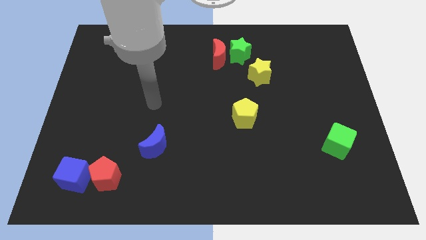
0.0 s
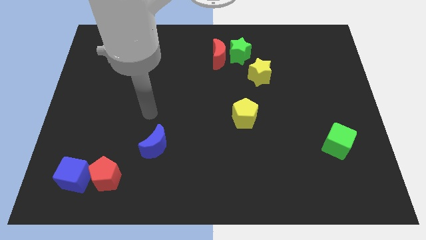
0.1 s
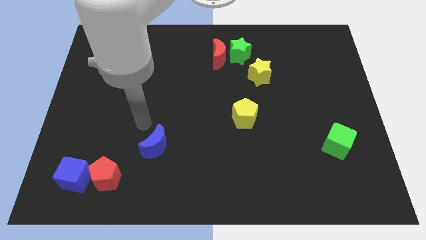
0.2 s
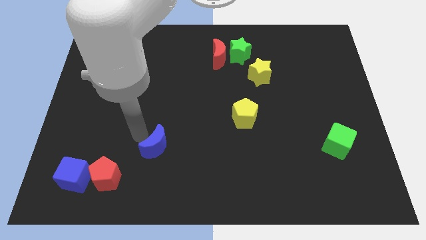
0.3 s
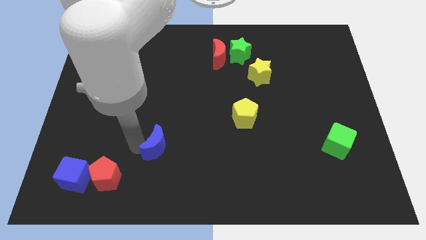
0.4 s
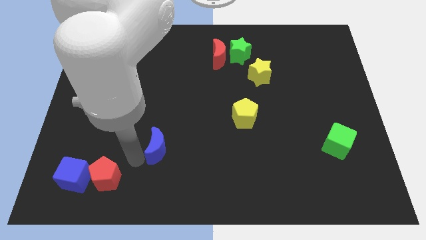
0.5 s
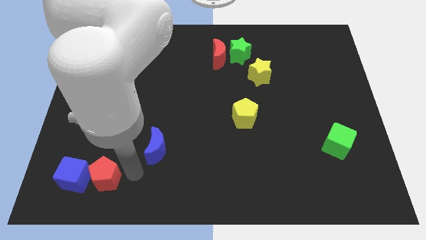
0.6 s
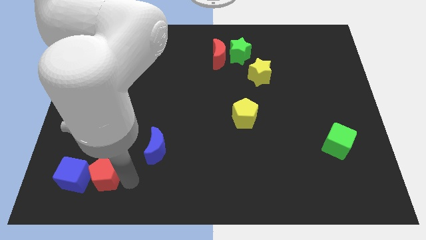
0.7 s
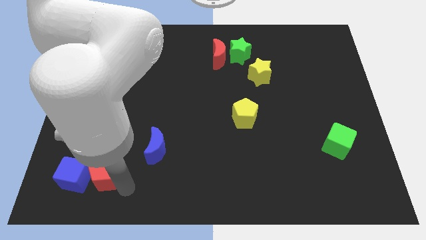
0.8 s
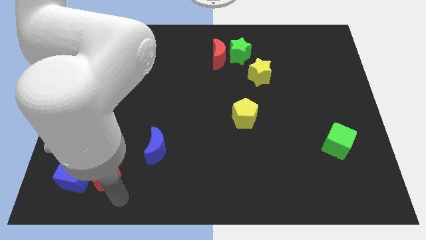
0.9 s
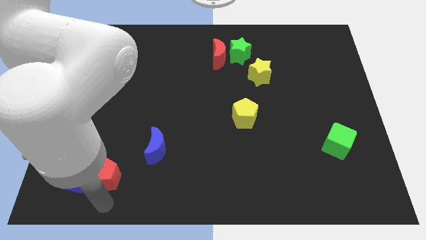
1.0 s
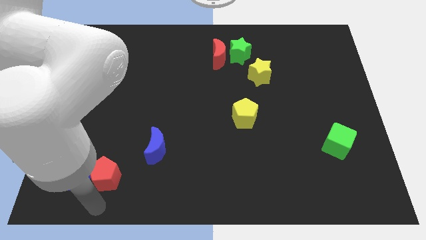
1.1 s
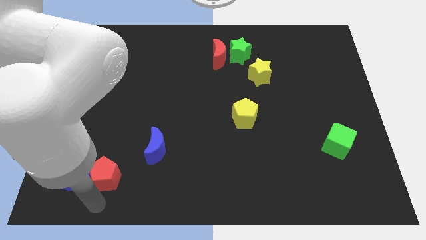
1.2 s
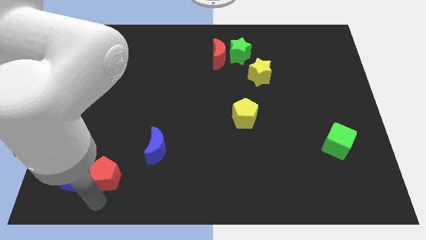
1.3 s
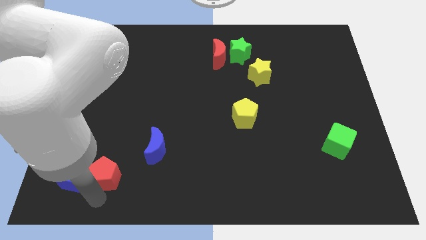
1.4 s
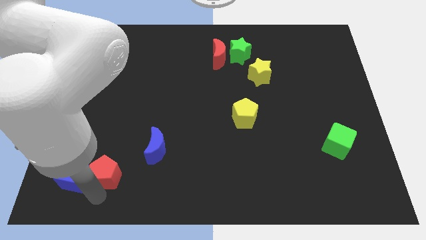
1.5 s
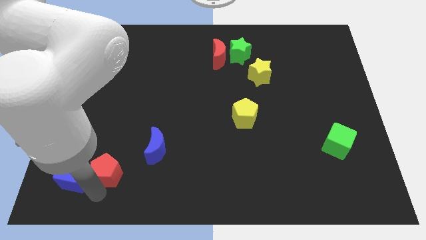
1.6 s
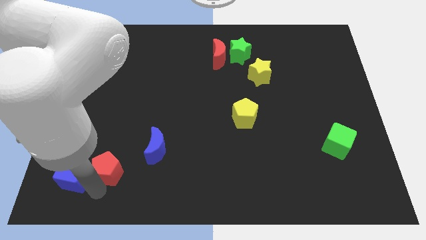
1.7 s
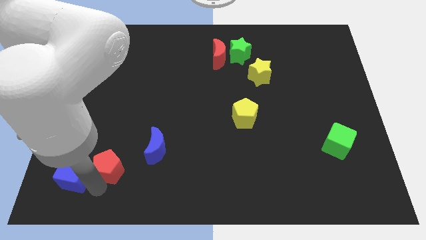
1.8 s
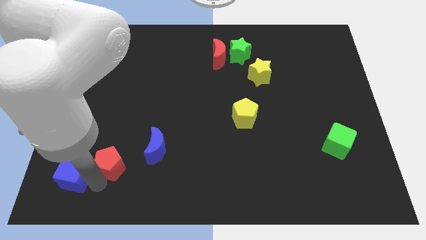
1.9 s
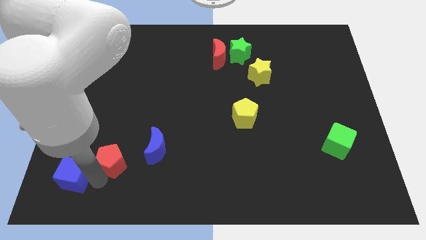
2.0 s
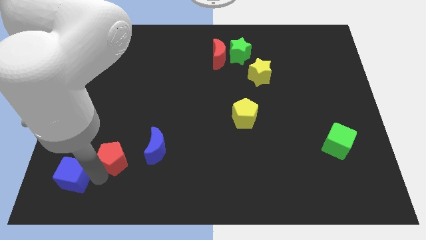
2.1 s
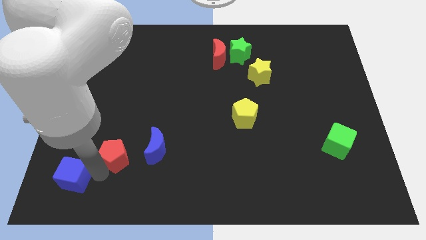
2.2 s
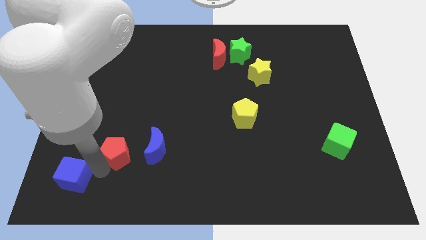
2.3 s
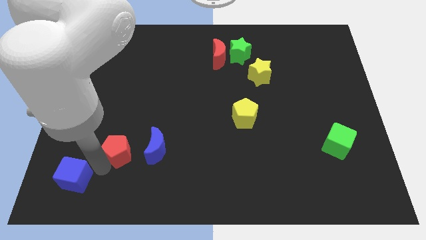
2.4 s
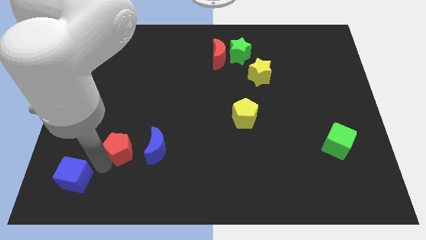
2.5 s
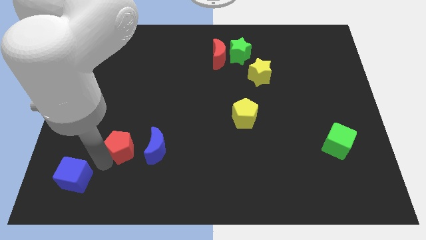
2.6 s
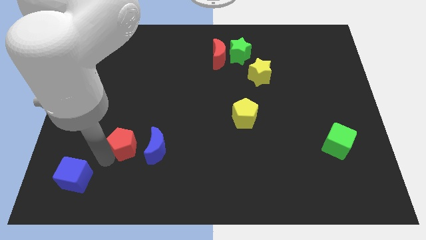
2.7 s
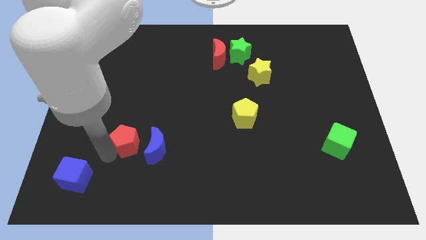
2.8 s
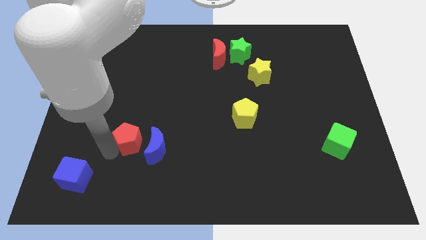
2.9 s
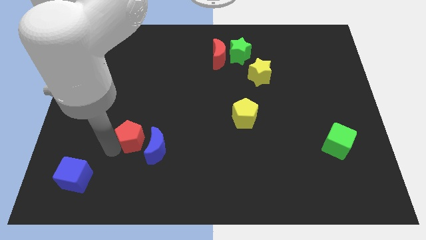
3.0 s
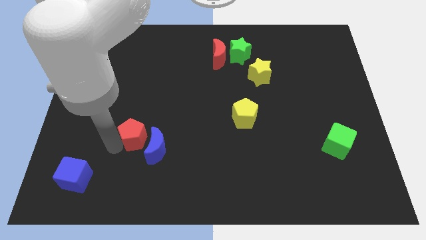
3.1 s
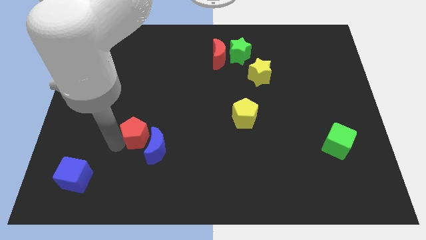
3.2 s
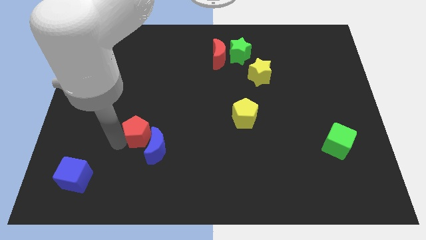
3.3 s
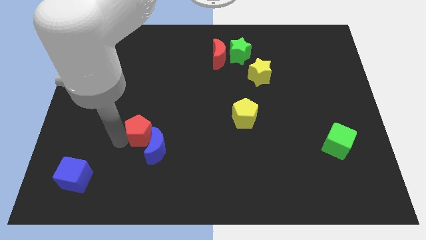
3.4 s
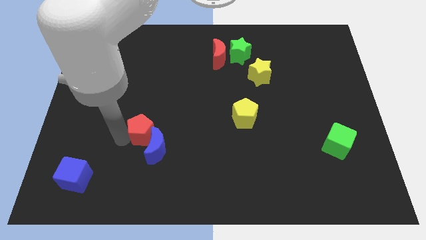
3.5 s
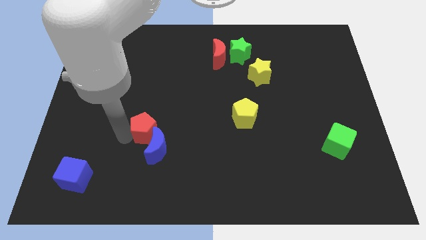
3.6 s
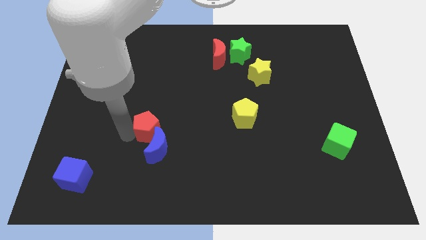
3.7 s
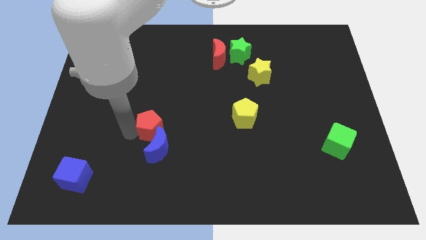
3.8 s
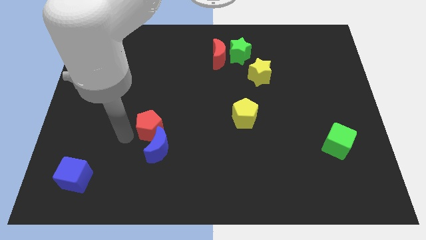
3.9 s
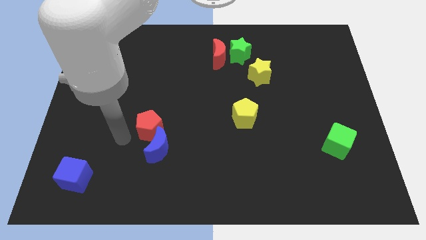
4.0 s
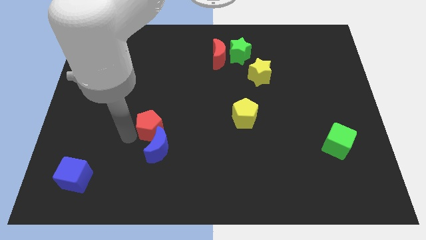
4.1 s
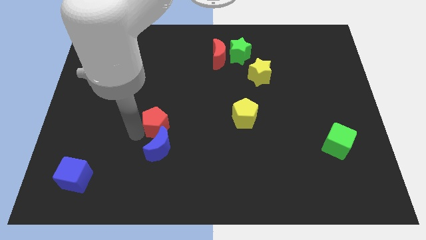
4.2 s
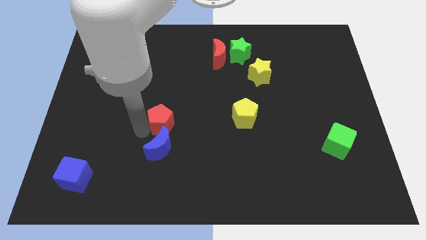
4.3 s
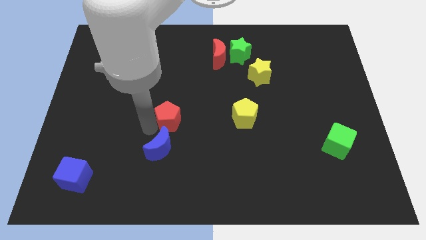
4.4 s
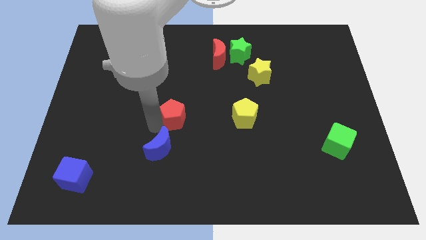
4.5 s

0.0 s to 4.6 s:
slide the red pentagon upwards and then right

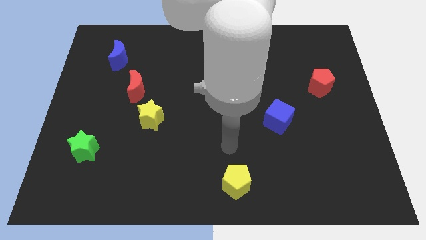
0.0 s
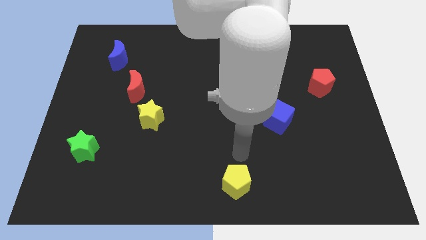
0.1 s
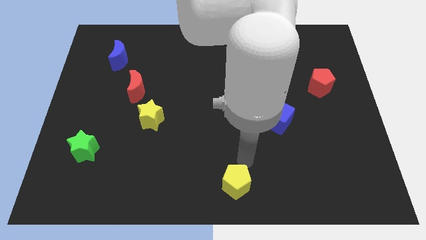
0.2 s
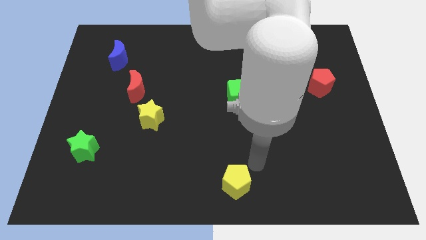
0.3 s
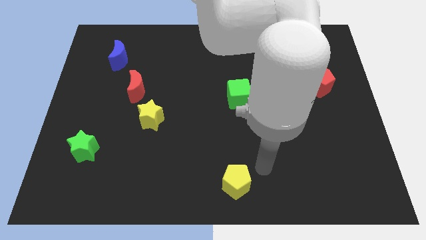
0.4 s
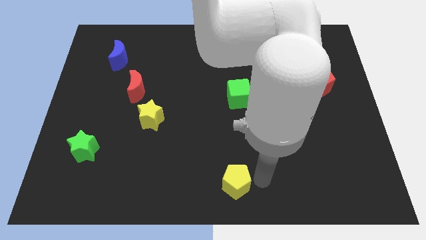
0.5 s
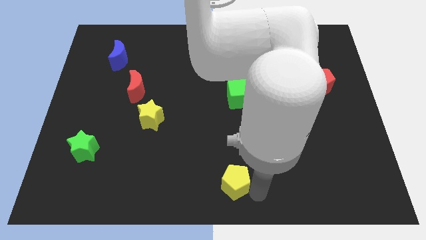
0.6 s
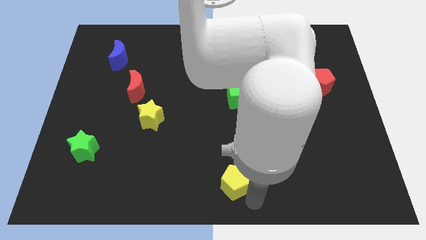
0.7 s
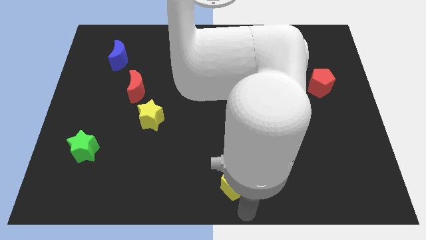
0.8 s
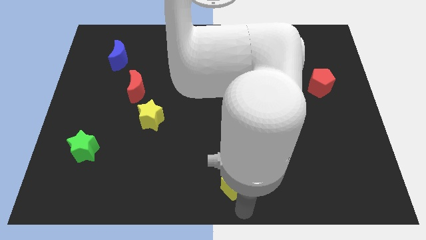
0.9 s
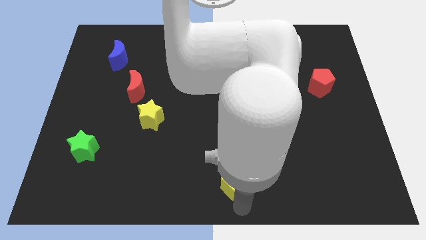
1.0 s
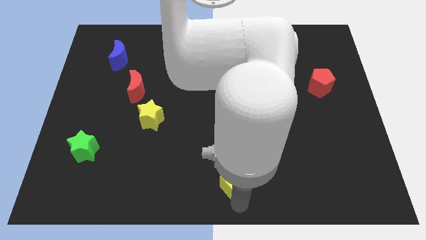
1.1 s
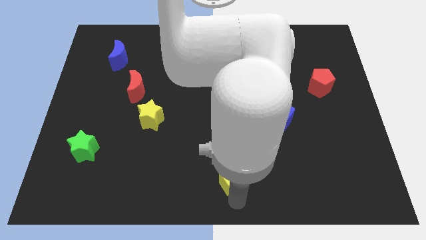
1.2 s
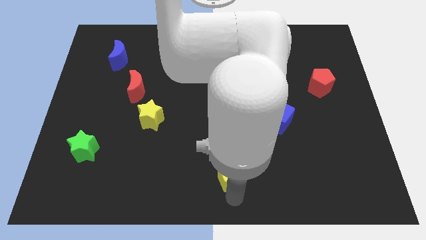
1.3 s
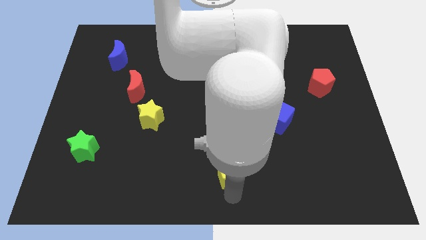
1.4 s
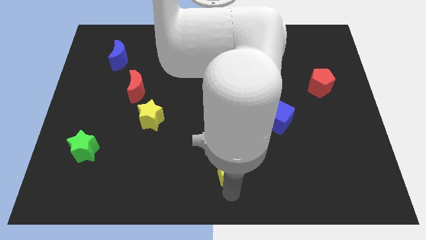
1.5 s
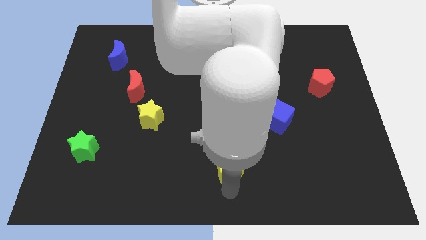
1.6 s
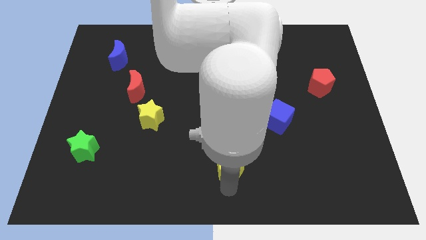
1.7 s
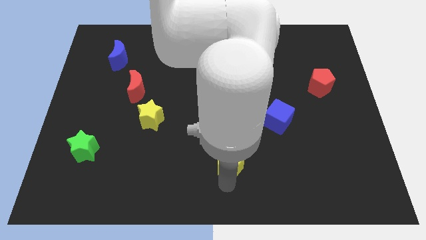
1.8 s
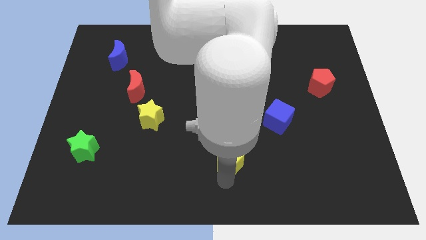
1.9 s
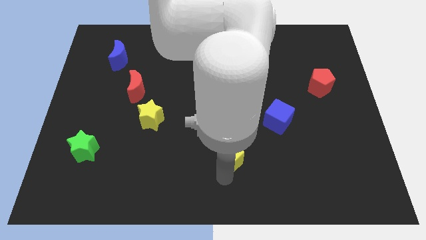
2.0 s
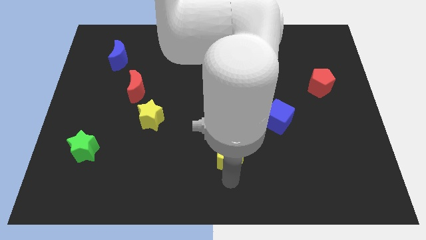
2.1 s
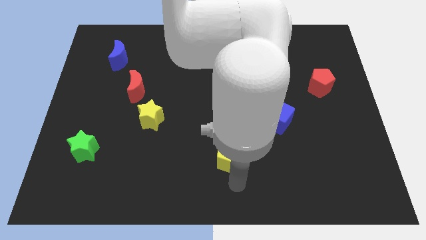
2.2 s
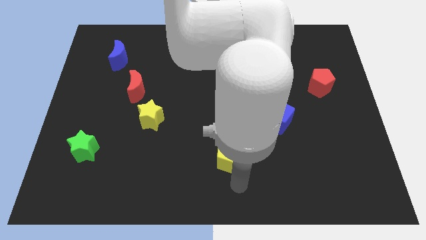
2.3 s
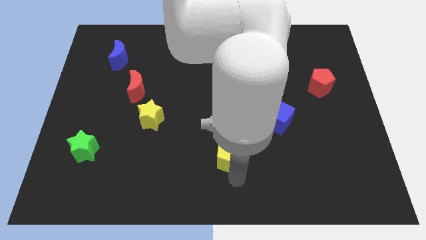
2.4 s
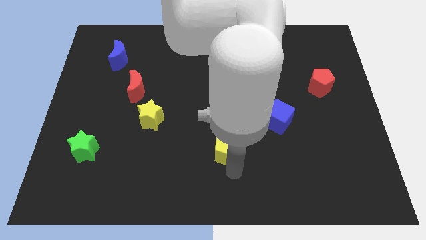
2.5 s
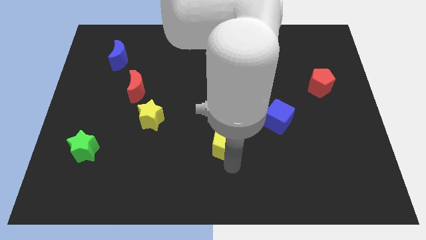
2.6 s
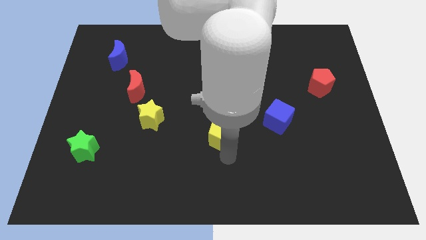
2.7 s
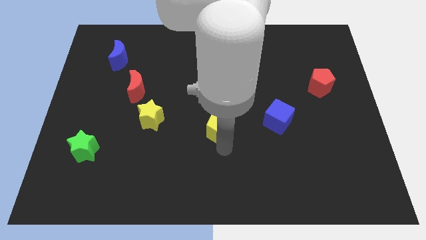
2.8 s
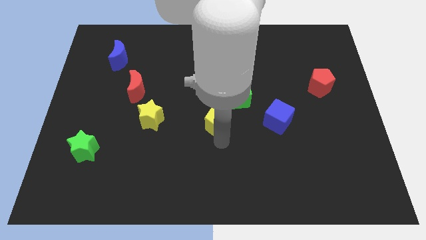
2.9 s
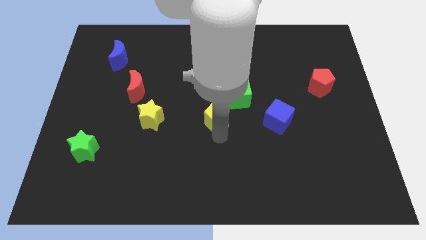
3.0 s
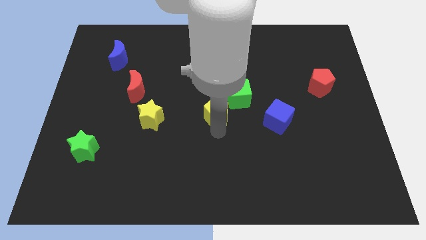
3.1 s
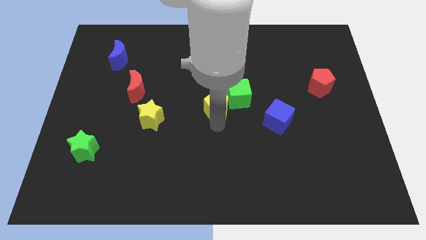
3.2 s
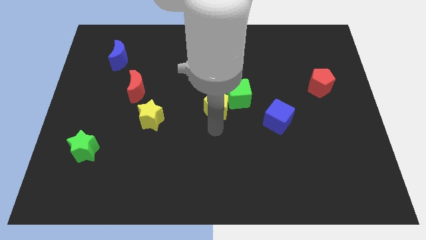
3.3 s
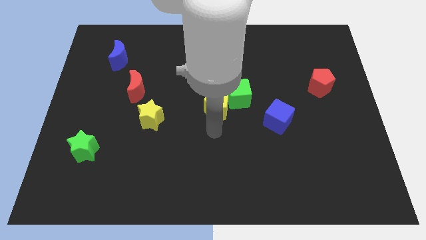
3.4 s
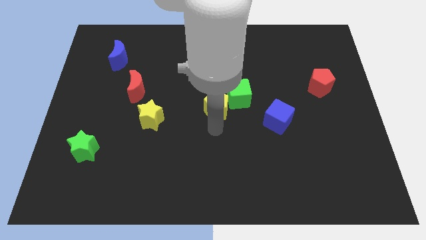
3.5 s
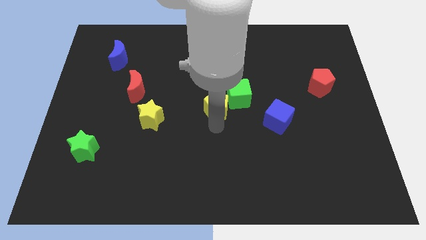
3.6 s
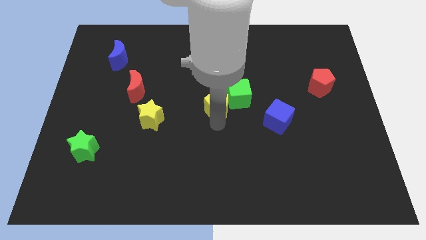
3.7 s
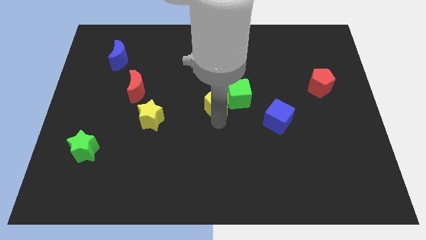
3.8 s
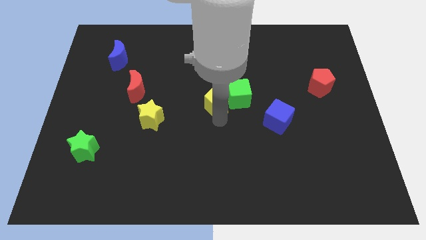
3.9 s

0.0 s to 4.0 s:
push the yellow pentagon upwards
